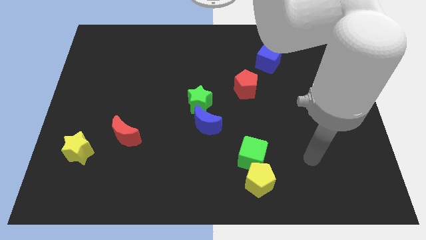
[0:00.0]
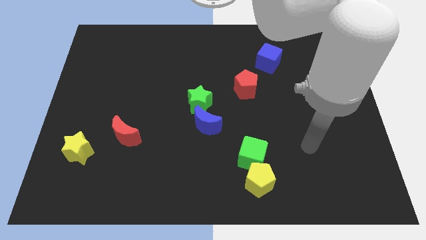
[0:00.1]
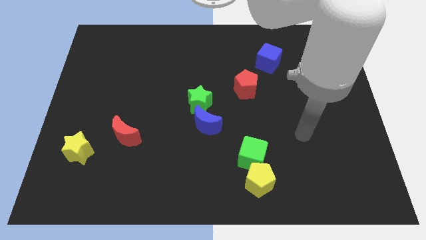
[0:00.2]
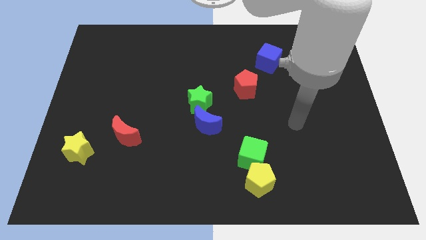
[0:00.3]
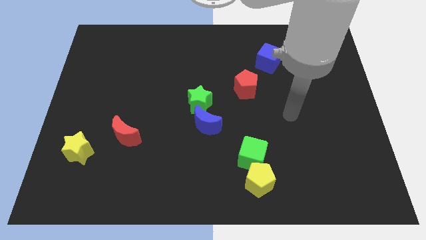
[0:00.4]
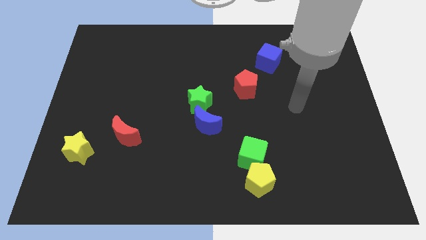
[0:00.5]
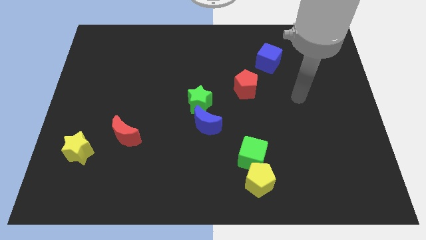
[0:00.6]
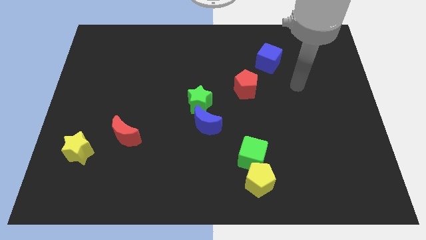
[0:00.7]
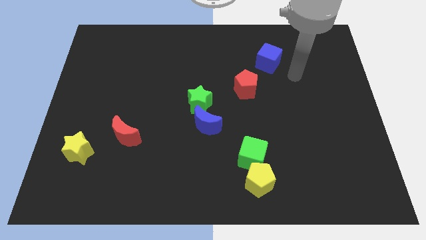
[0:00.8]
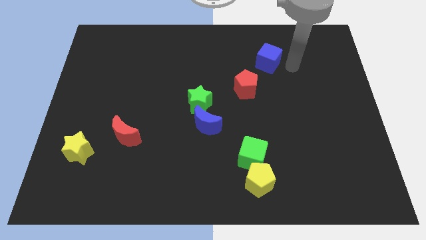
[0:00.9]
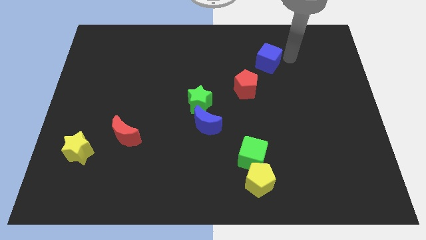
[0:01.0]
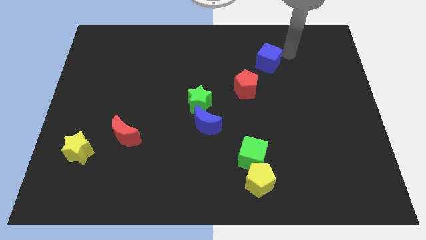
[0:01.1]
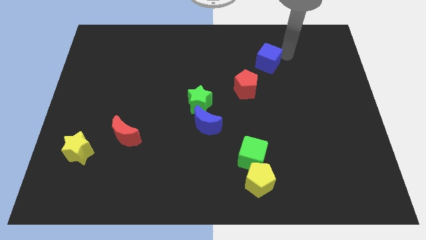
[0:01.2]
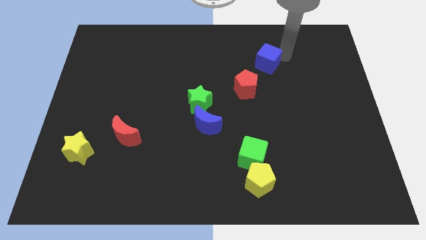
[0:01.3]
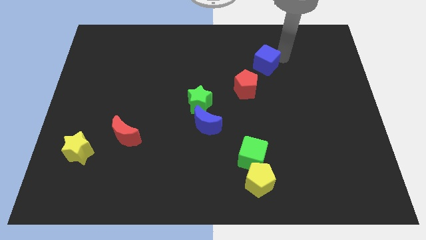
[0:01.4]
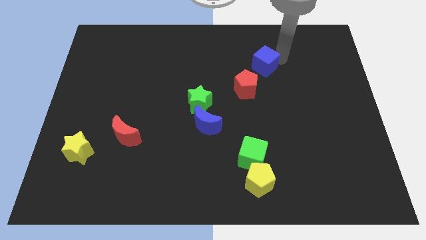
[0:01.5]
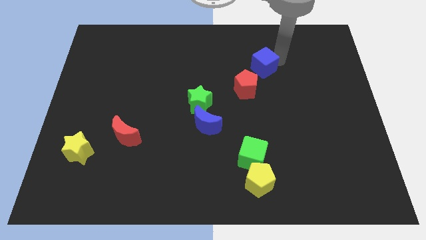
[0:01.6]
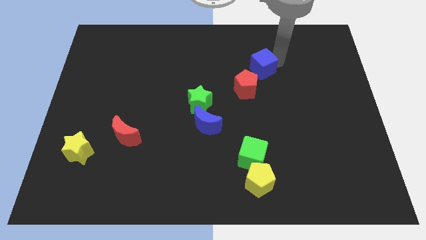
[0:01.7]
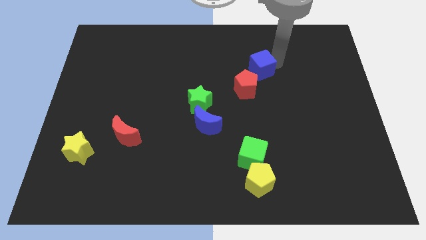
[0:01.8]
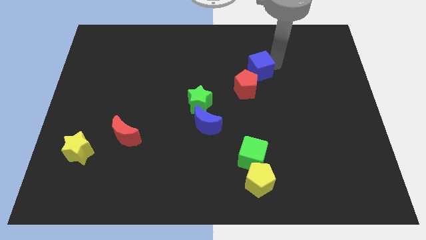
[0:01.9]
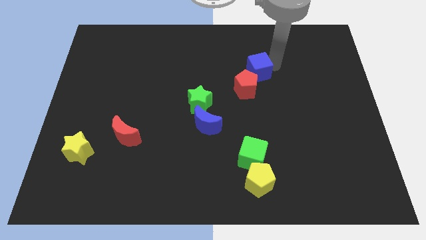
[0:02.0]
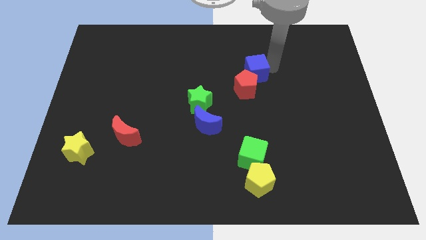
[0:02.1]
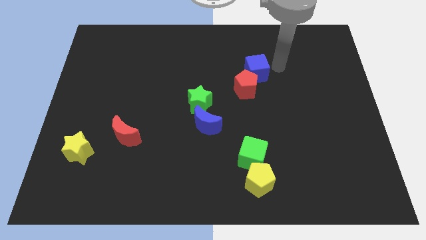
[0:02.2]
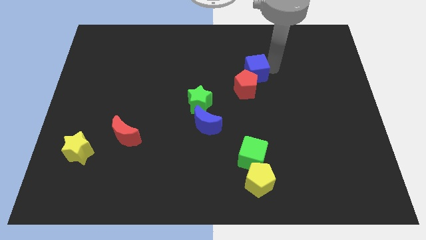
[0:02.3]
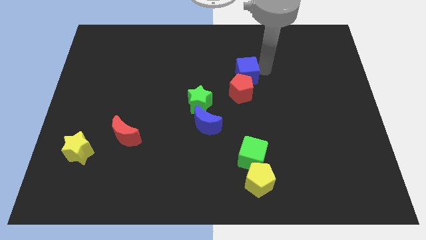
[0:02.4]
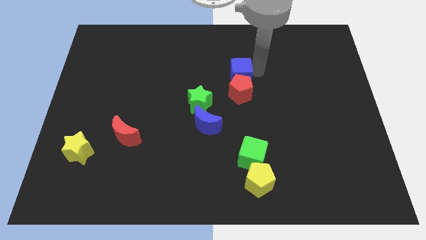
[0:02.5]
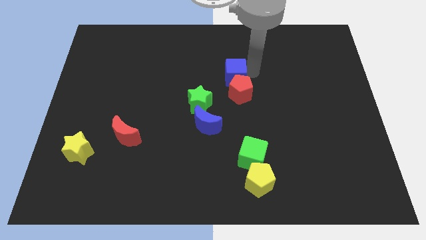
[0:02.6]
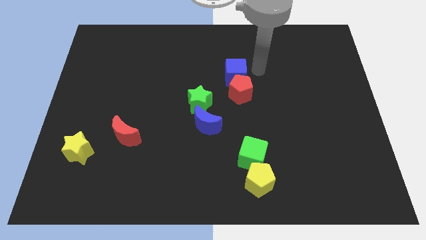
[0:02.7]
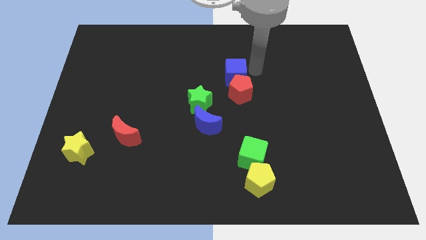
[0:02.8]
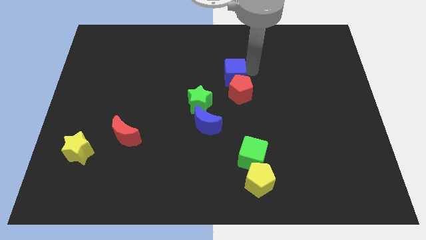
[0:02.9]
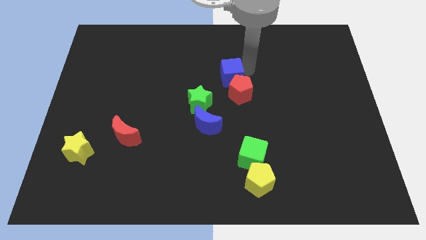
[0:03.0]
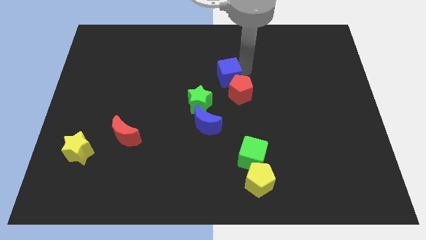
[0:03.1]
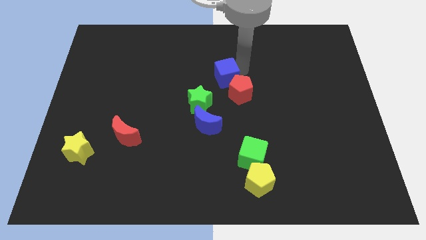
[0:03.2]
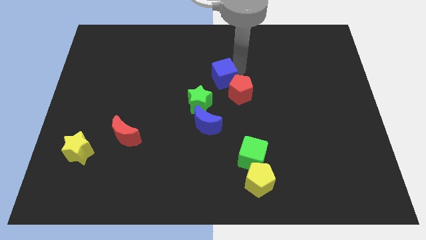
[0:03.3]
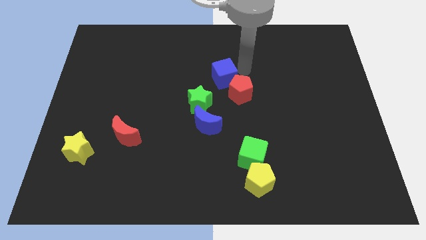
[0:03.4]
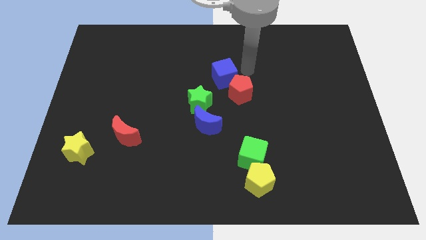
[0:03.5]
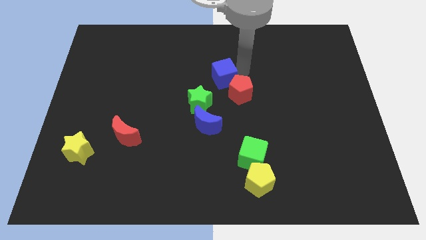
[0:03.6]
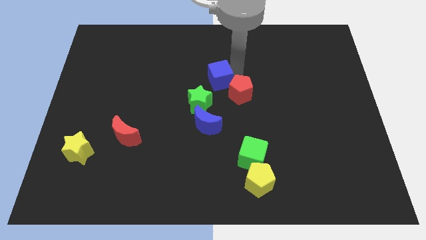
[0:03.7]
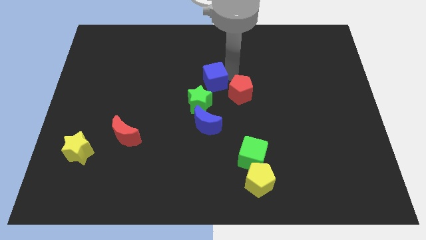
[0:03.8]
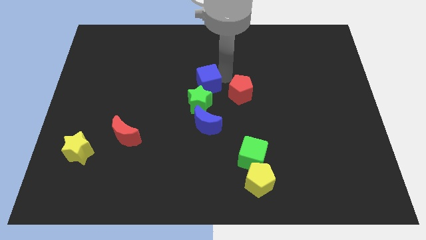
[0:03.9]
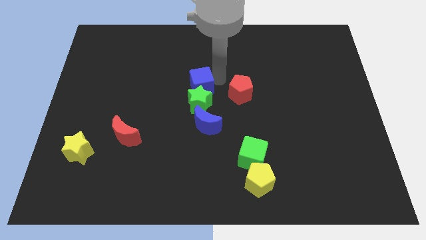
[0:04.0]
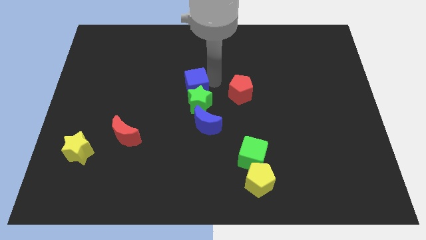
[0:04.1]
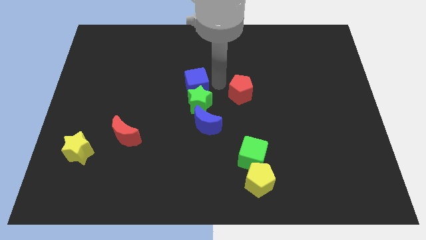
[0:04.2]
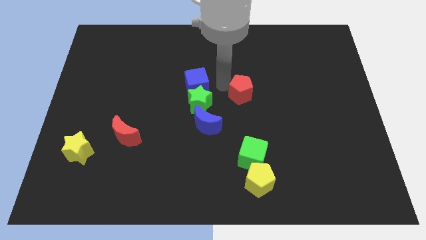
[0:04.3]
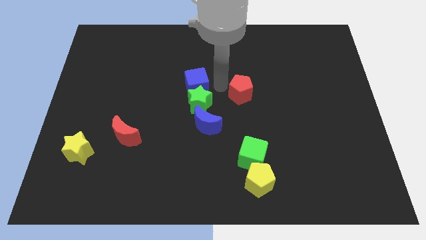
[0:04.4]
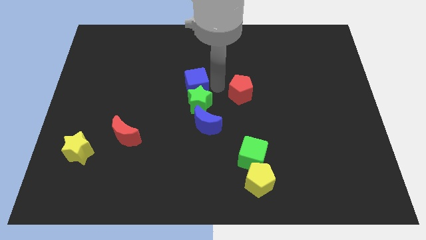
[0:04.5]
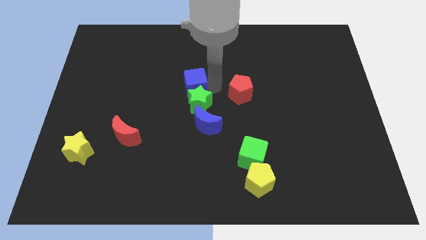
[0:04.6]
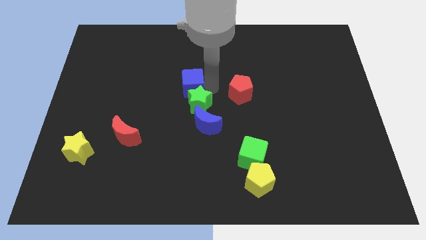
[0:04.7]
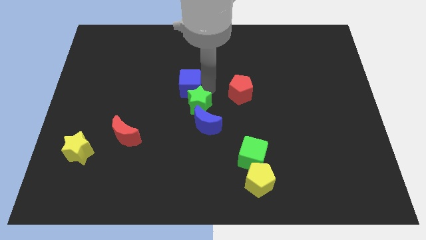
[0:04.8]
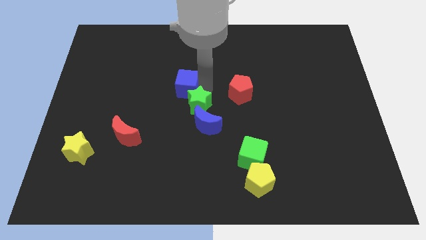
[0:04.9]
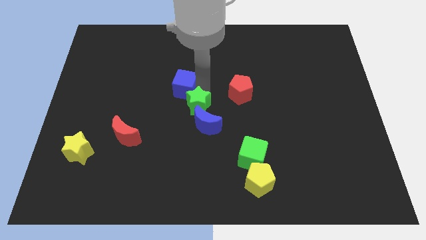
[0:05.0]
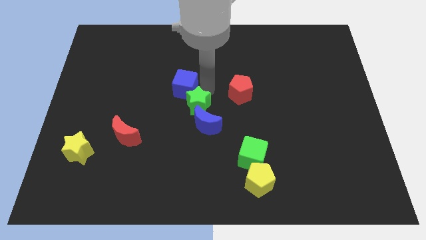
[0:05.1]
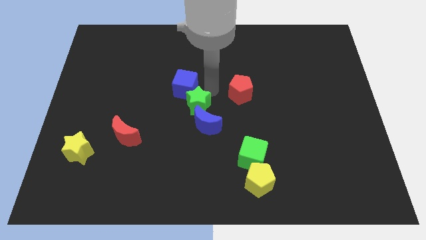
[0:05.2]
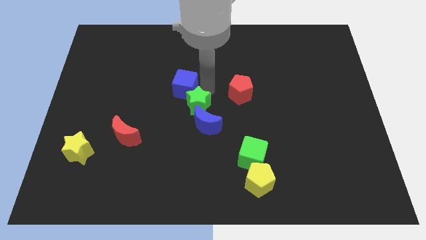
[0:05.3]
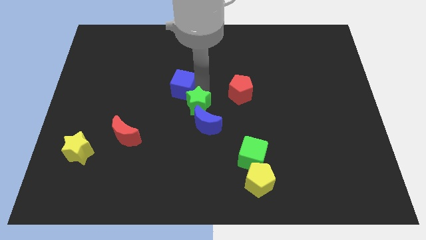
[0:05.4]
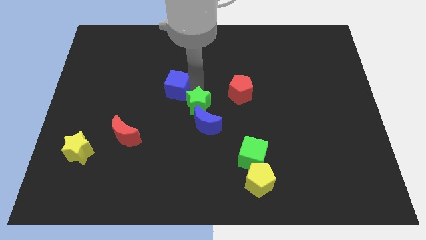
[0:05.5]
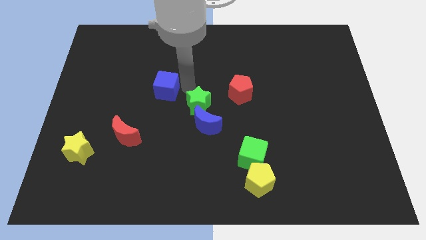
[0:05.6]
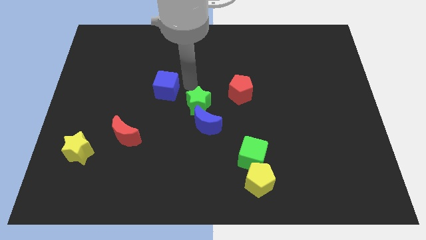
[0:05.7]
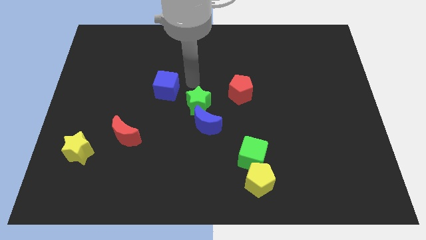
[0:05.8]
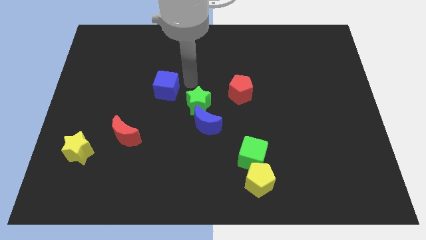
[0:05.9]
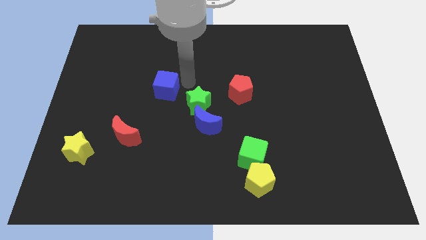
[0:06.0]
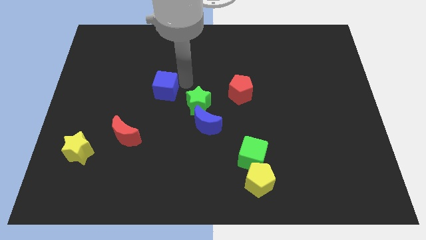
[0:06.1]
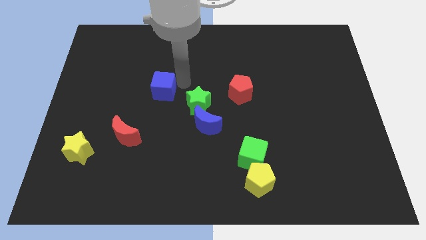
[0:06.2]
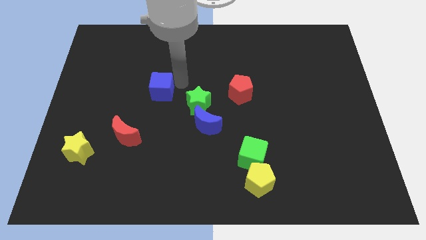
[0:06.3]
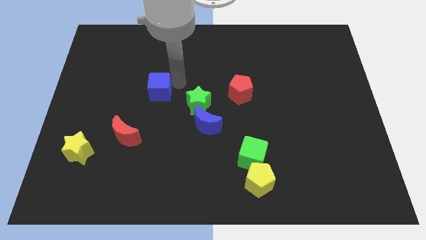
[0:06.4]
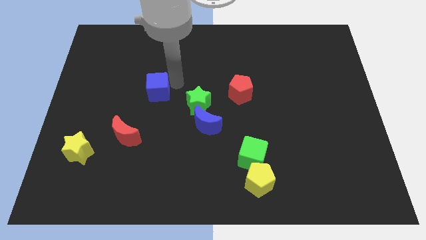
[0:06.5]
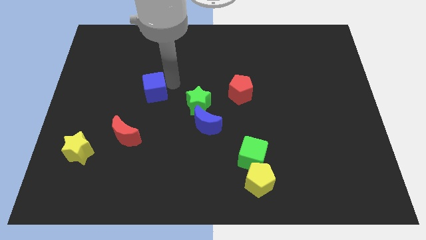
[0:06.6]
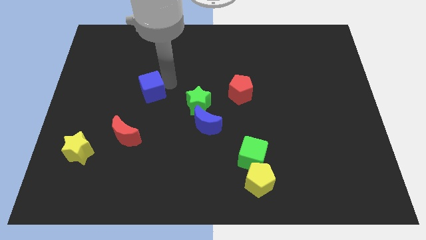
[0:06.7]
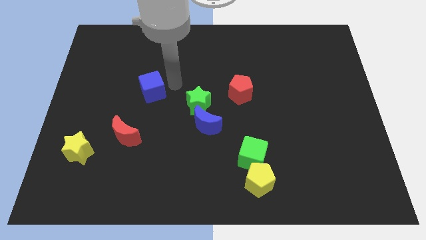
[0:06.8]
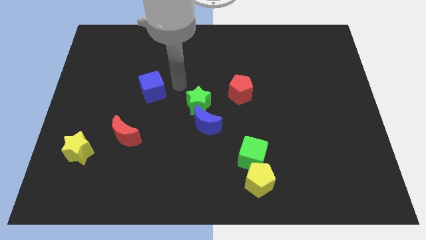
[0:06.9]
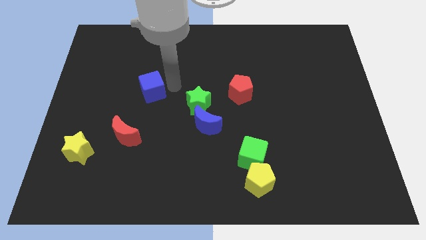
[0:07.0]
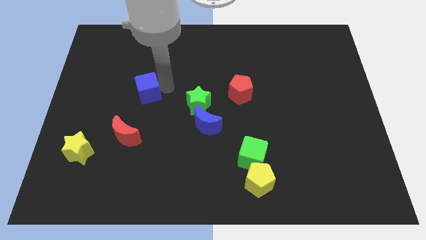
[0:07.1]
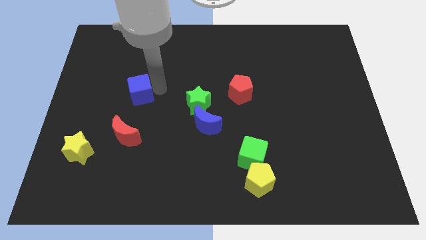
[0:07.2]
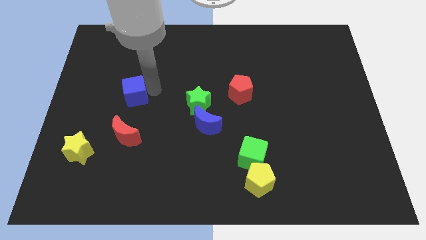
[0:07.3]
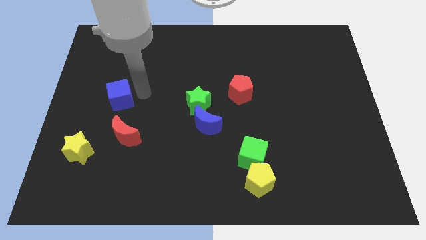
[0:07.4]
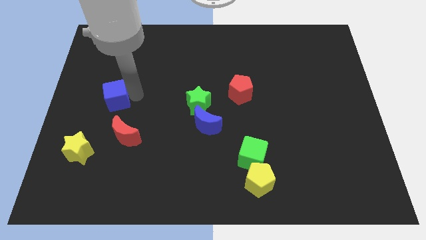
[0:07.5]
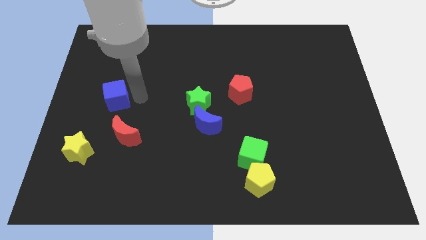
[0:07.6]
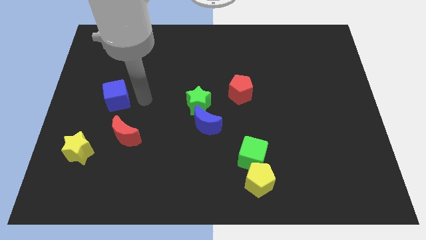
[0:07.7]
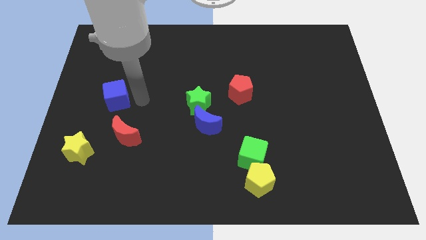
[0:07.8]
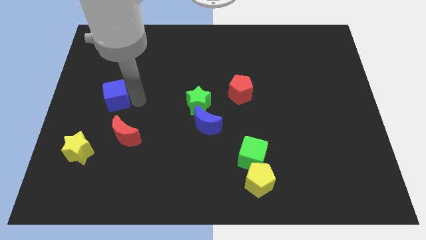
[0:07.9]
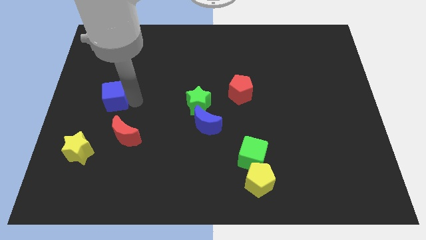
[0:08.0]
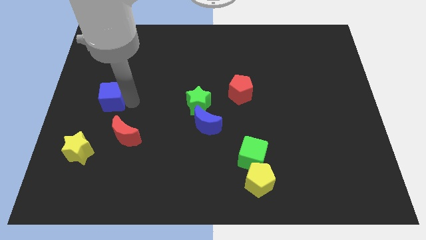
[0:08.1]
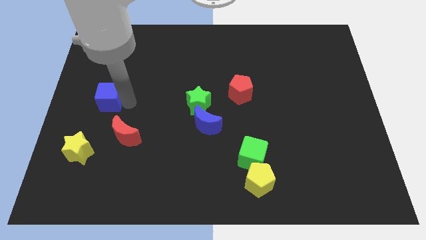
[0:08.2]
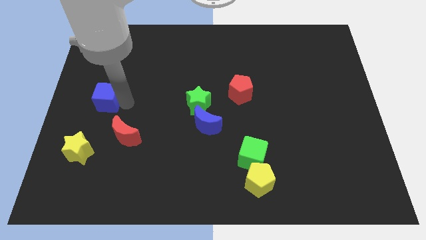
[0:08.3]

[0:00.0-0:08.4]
slide the blue cube to the left side of the board
